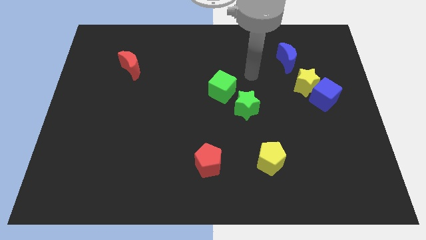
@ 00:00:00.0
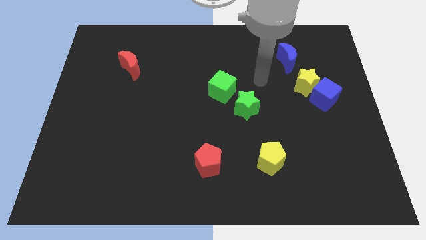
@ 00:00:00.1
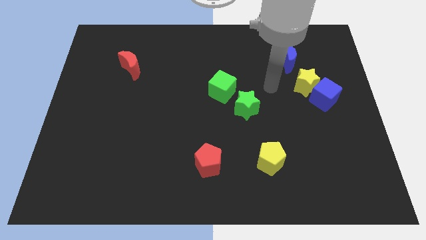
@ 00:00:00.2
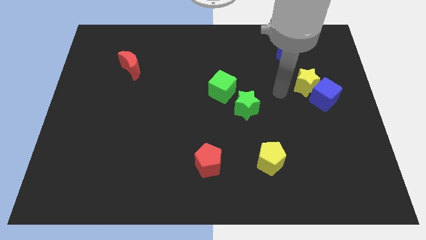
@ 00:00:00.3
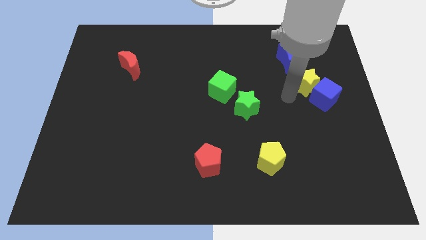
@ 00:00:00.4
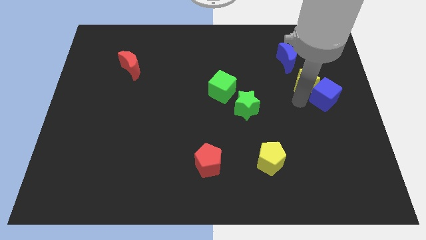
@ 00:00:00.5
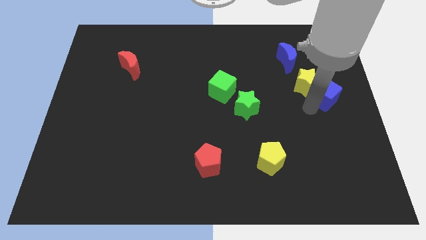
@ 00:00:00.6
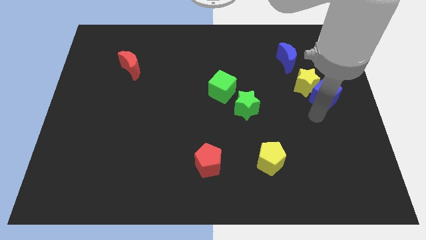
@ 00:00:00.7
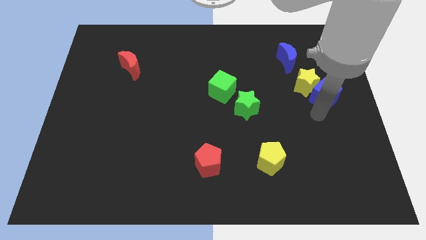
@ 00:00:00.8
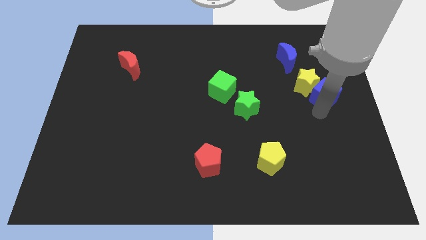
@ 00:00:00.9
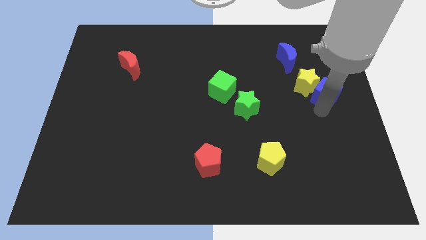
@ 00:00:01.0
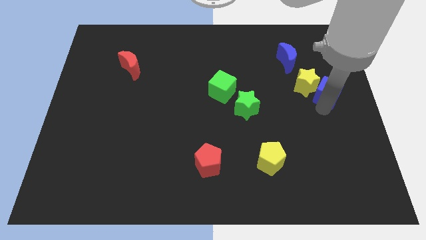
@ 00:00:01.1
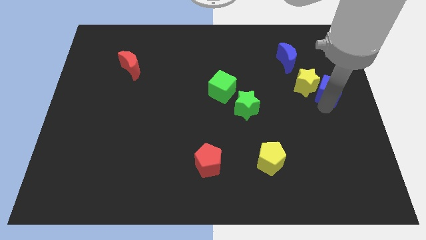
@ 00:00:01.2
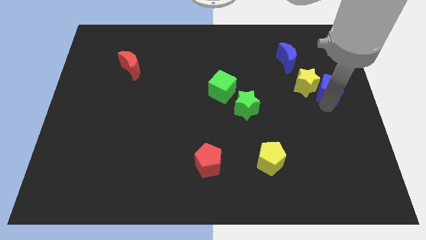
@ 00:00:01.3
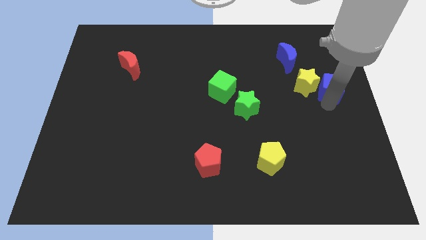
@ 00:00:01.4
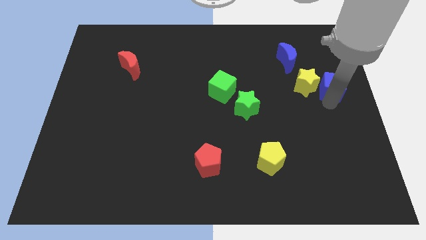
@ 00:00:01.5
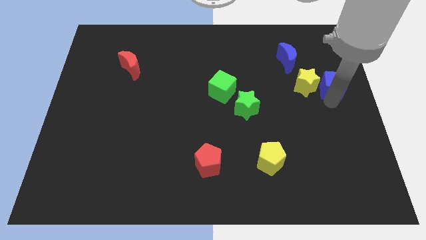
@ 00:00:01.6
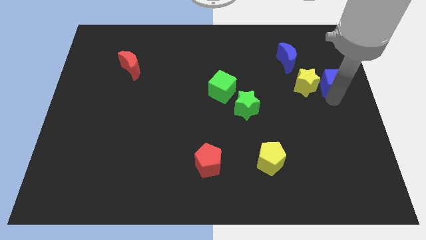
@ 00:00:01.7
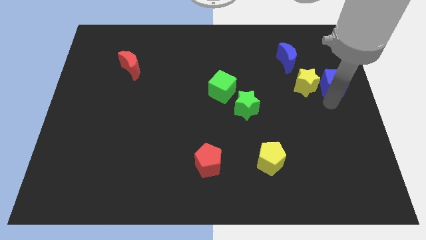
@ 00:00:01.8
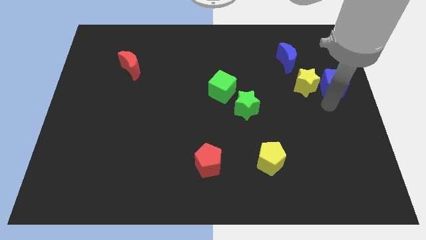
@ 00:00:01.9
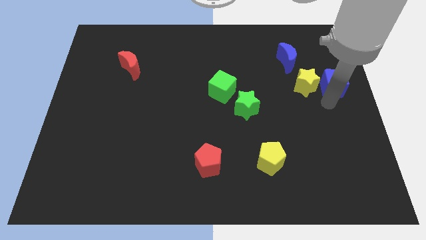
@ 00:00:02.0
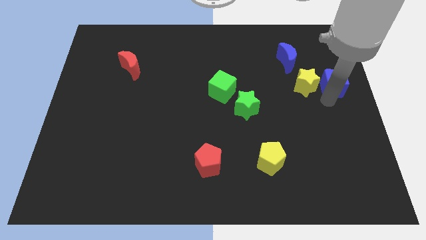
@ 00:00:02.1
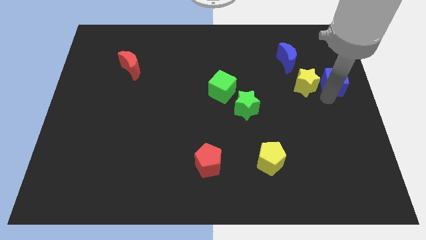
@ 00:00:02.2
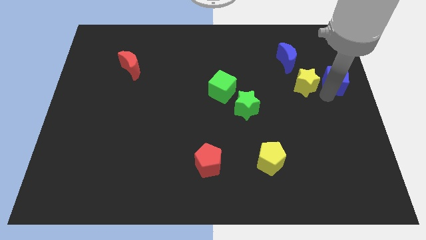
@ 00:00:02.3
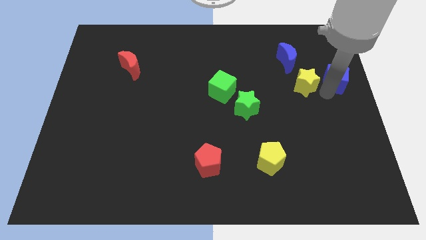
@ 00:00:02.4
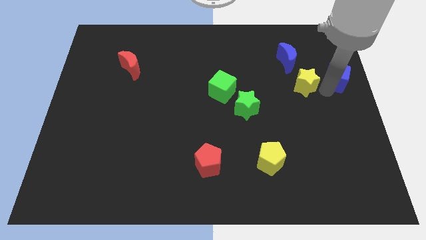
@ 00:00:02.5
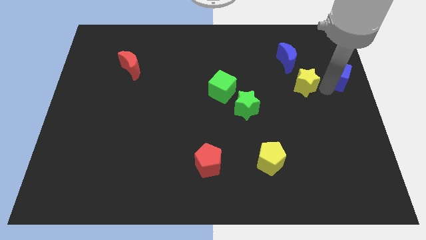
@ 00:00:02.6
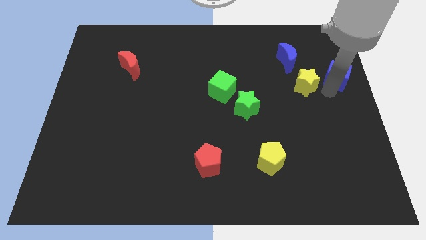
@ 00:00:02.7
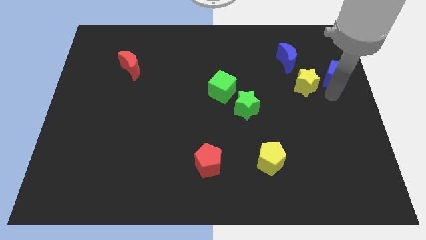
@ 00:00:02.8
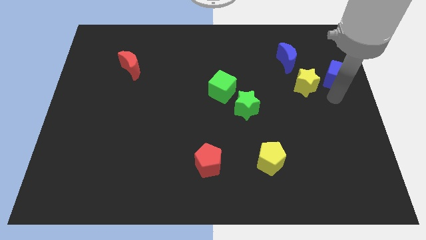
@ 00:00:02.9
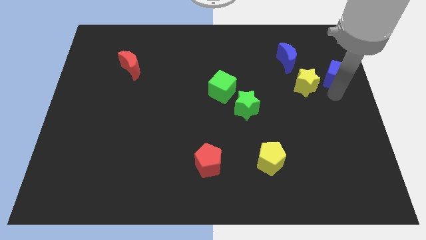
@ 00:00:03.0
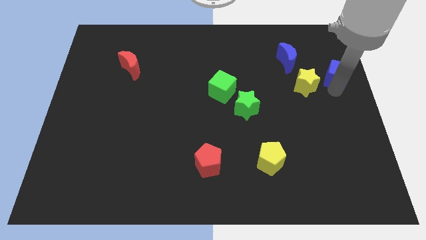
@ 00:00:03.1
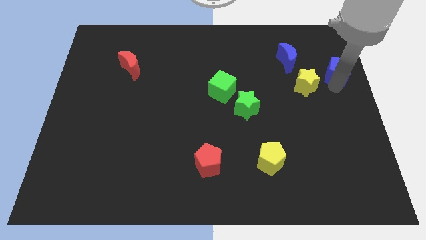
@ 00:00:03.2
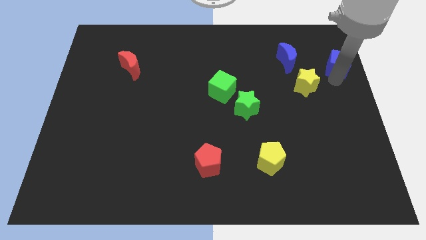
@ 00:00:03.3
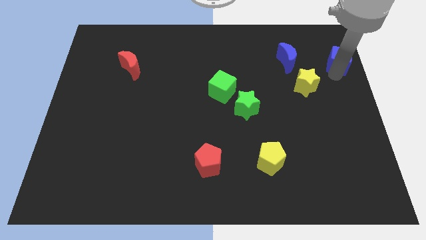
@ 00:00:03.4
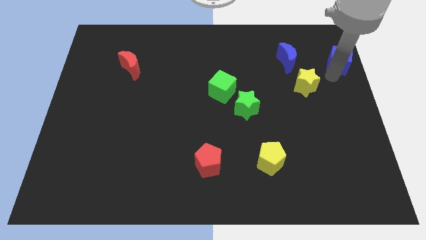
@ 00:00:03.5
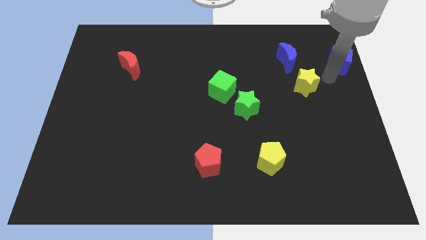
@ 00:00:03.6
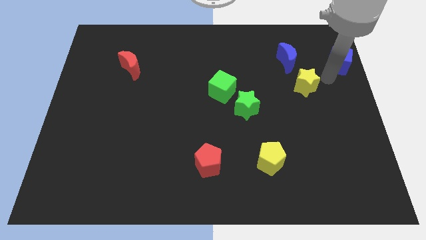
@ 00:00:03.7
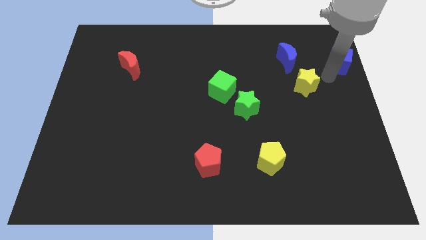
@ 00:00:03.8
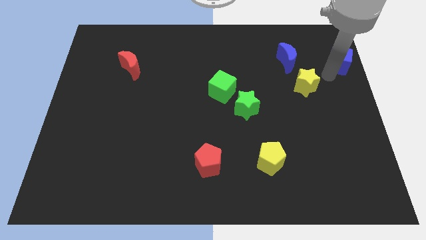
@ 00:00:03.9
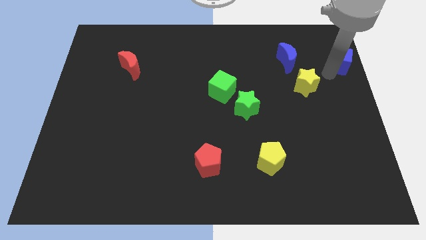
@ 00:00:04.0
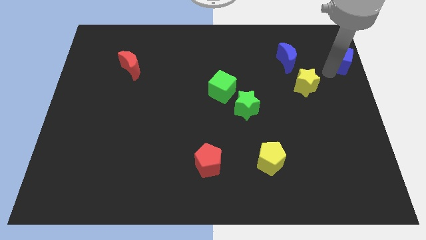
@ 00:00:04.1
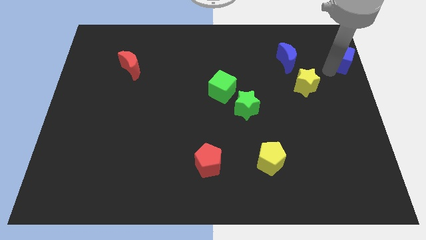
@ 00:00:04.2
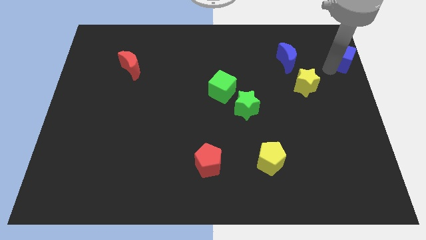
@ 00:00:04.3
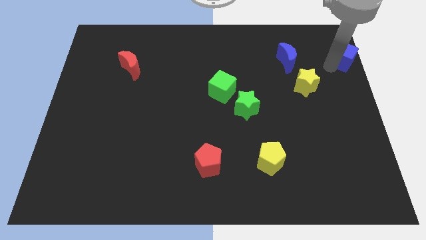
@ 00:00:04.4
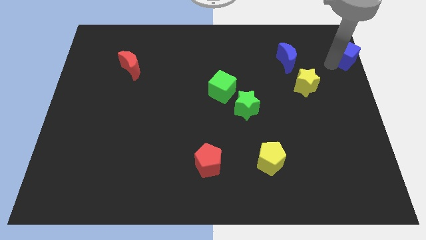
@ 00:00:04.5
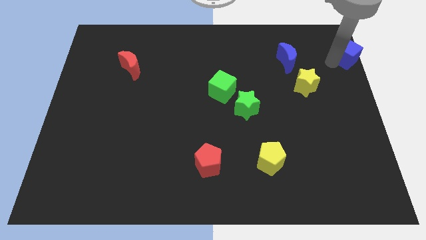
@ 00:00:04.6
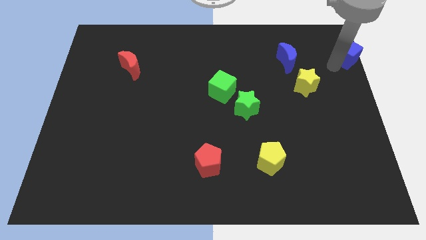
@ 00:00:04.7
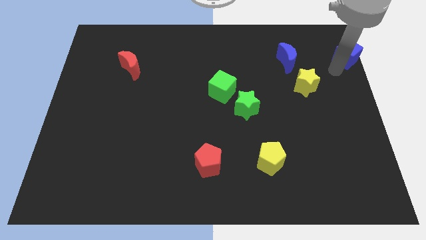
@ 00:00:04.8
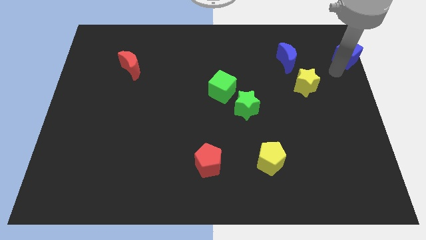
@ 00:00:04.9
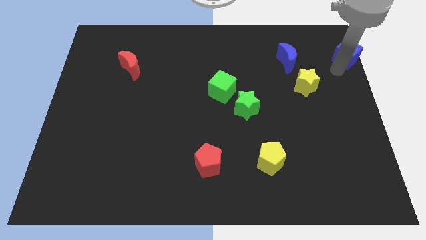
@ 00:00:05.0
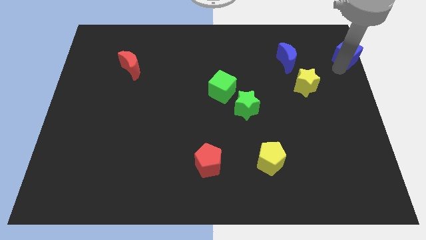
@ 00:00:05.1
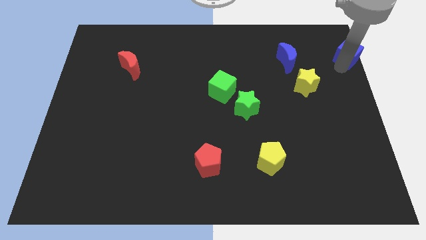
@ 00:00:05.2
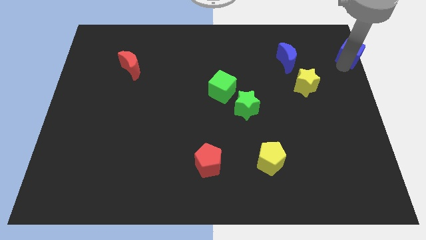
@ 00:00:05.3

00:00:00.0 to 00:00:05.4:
push the blue cube to the top right

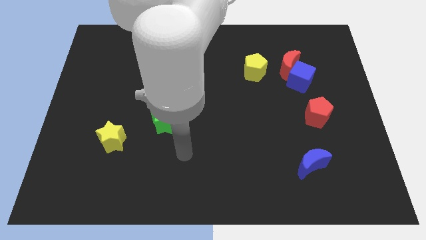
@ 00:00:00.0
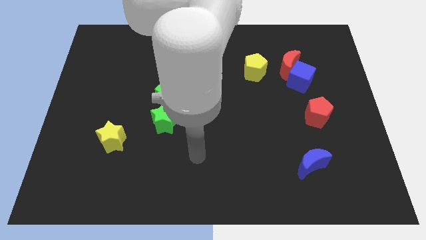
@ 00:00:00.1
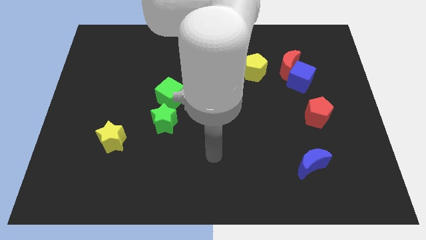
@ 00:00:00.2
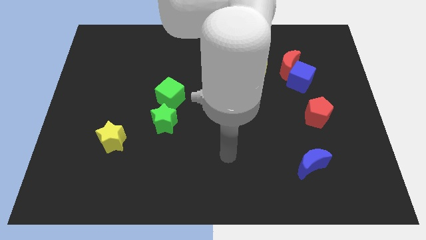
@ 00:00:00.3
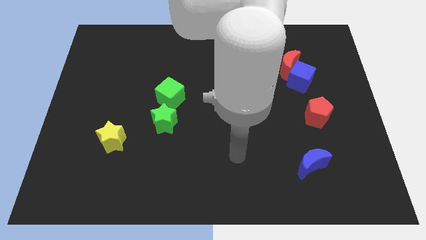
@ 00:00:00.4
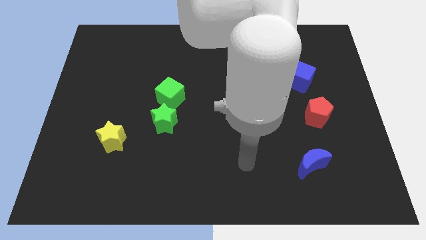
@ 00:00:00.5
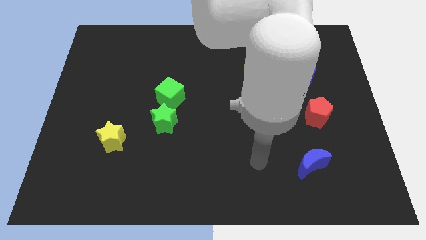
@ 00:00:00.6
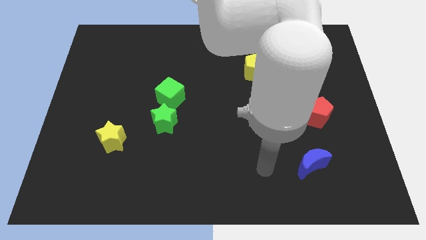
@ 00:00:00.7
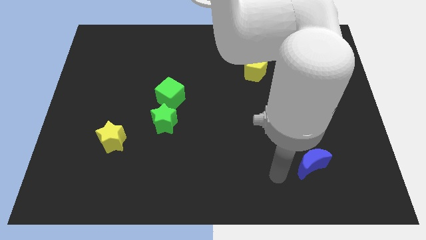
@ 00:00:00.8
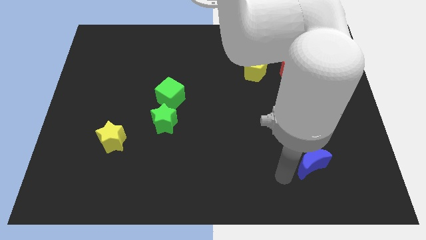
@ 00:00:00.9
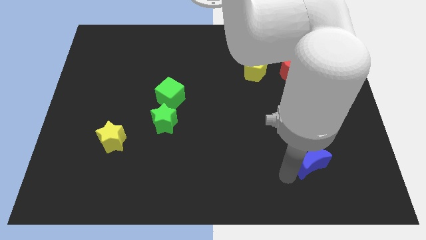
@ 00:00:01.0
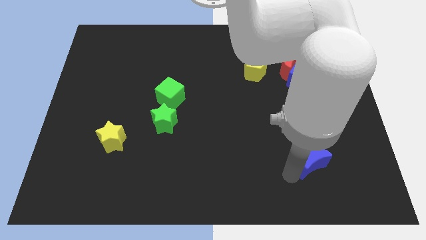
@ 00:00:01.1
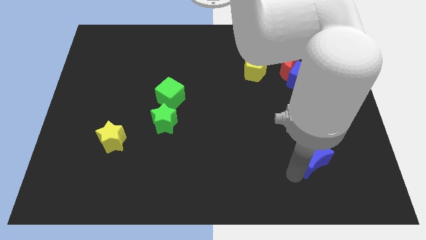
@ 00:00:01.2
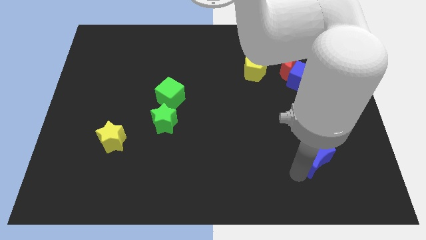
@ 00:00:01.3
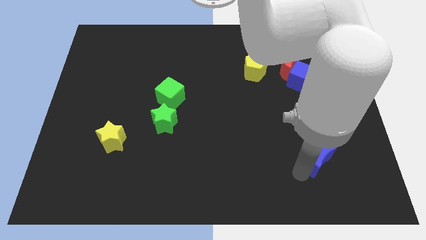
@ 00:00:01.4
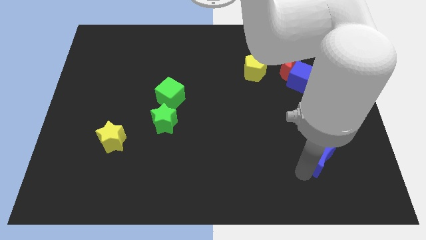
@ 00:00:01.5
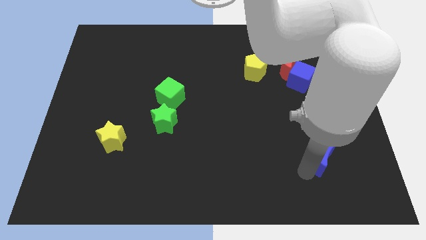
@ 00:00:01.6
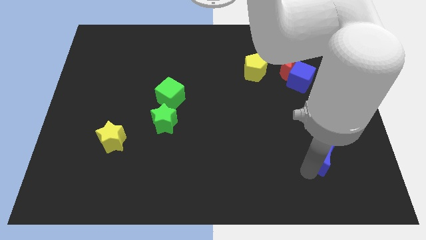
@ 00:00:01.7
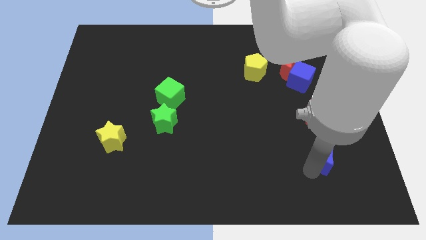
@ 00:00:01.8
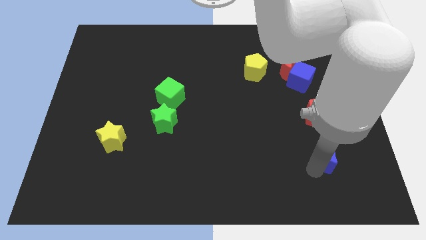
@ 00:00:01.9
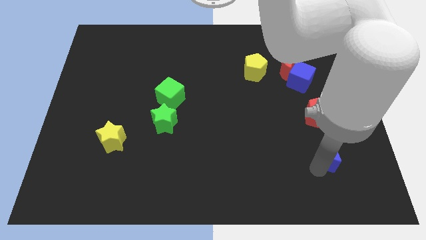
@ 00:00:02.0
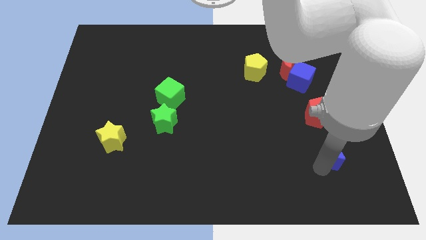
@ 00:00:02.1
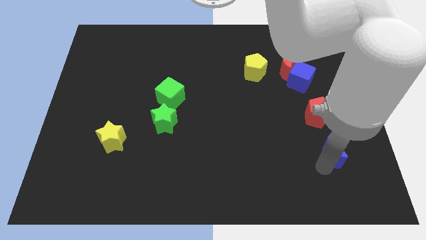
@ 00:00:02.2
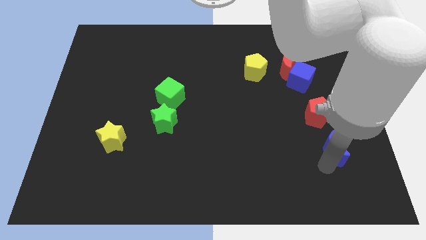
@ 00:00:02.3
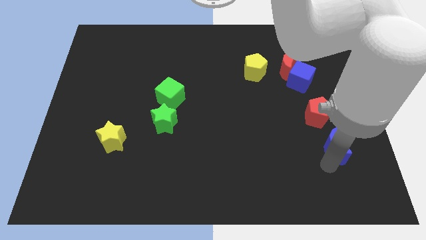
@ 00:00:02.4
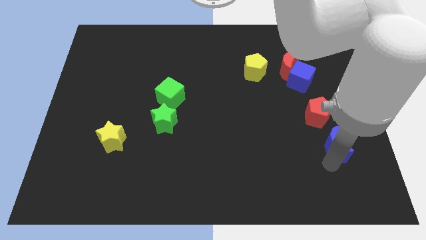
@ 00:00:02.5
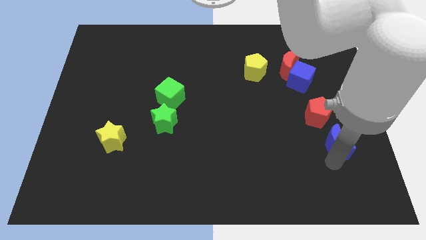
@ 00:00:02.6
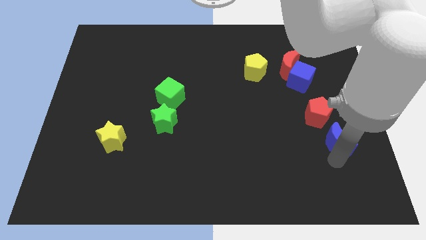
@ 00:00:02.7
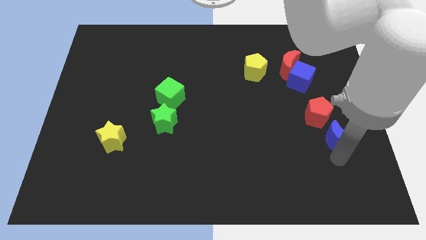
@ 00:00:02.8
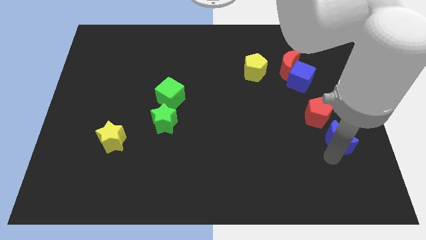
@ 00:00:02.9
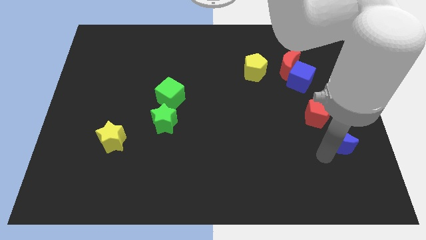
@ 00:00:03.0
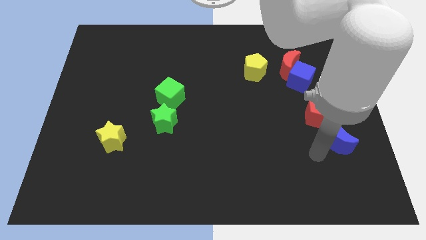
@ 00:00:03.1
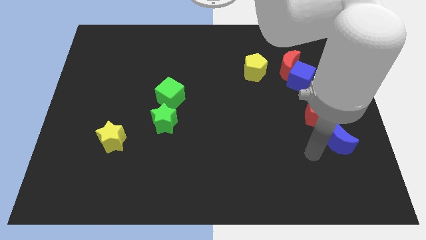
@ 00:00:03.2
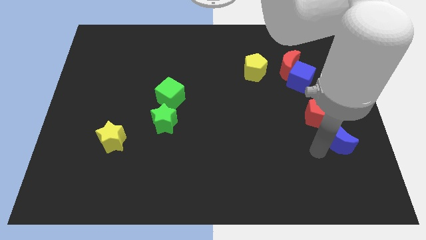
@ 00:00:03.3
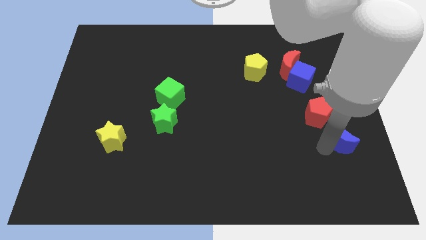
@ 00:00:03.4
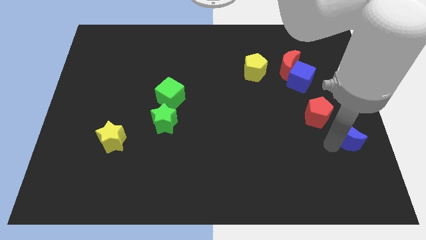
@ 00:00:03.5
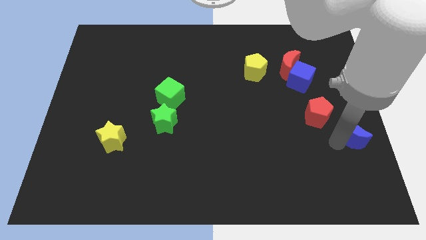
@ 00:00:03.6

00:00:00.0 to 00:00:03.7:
push the blue moon to the center right
